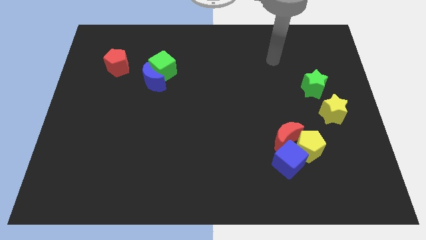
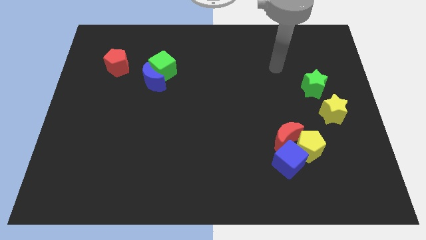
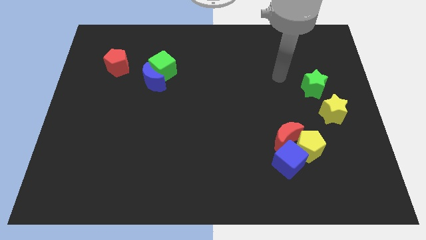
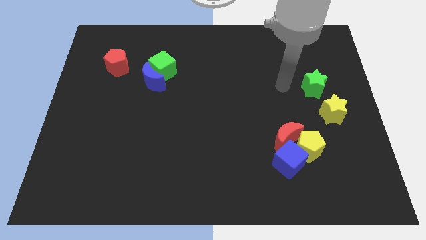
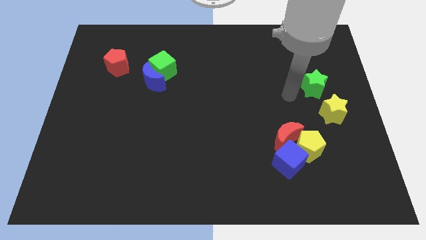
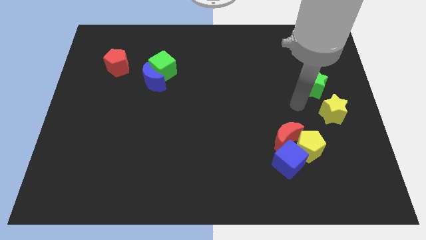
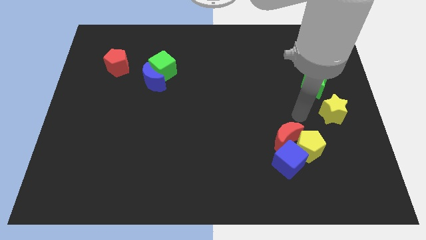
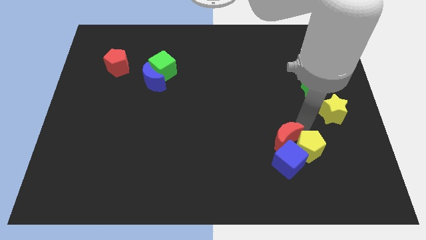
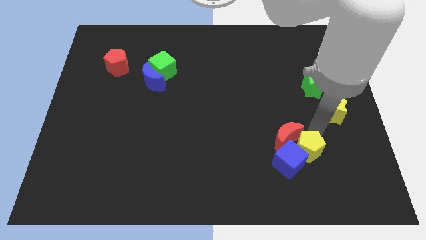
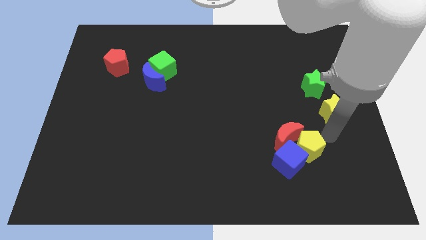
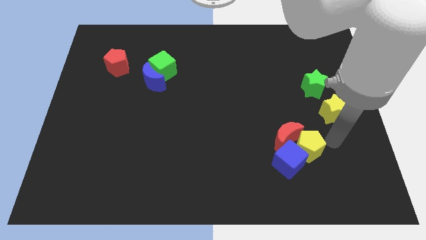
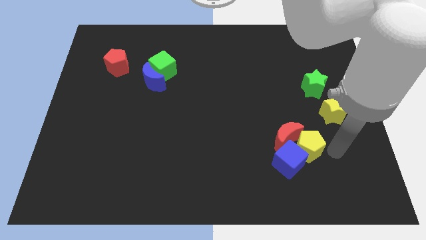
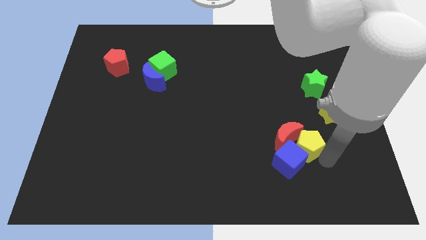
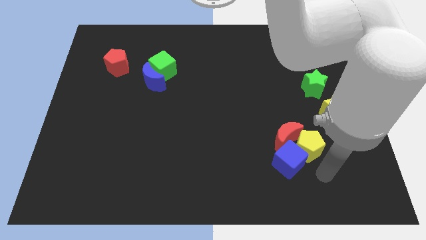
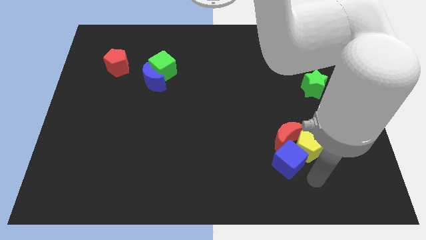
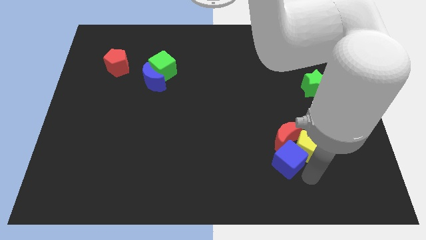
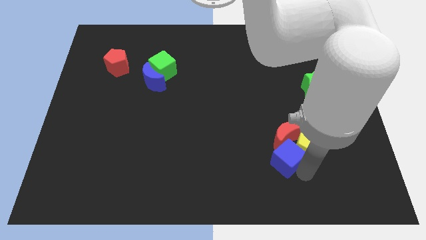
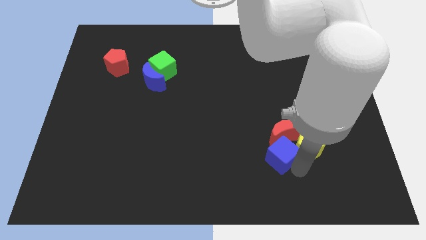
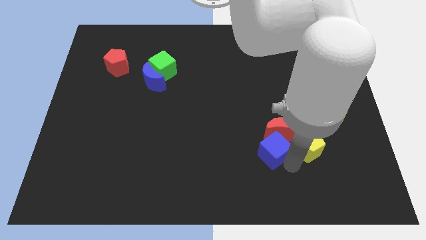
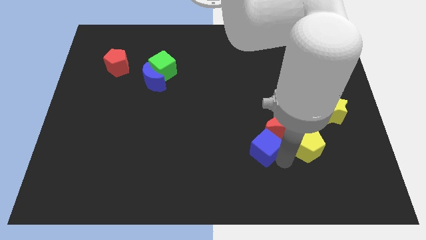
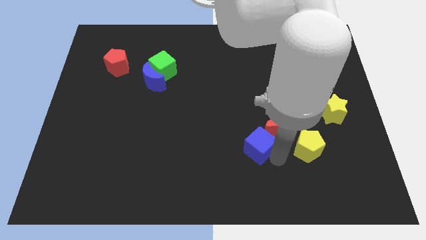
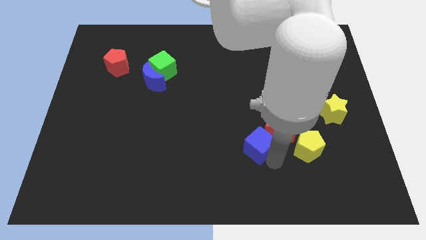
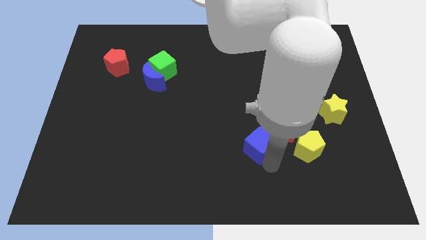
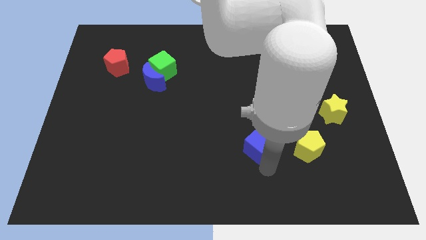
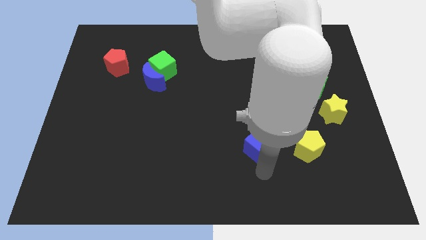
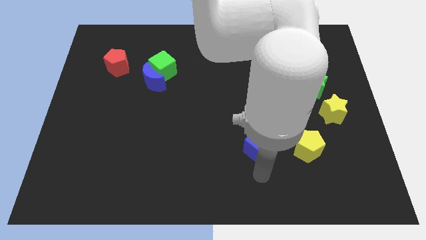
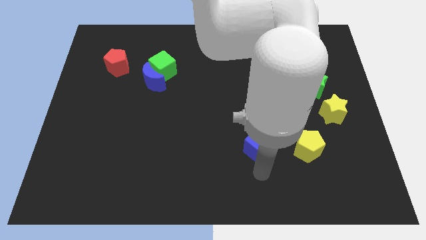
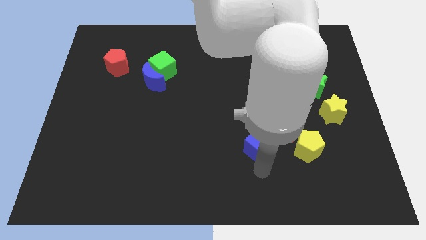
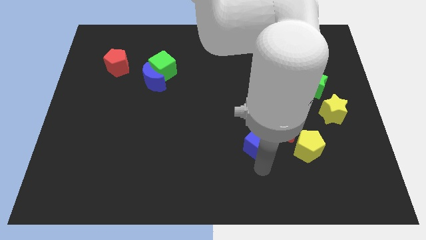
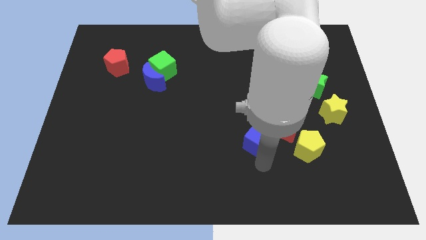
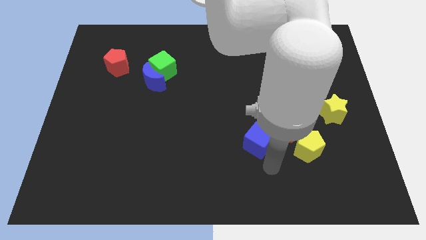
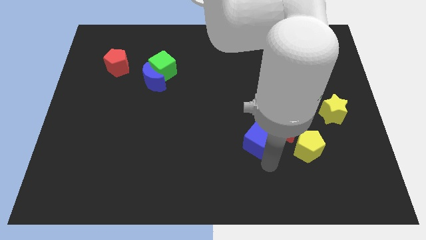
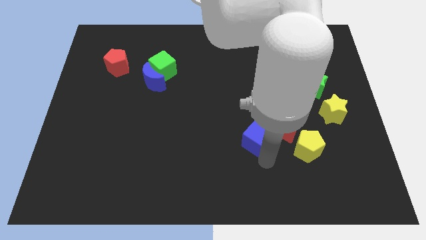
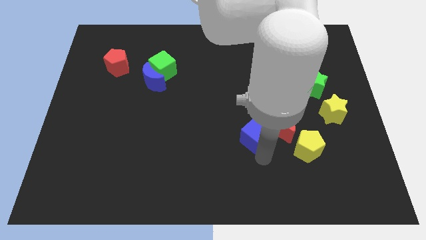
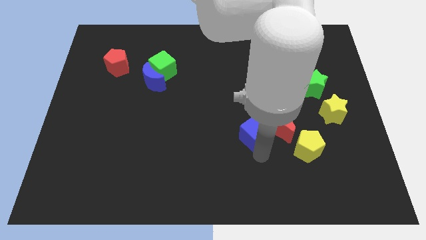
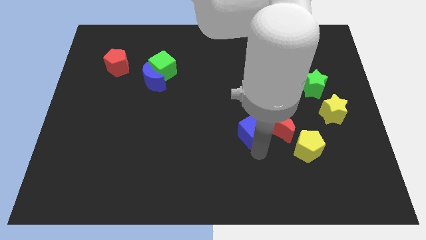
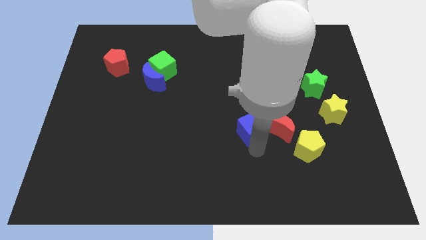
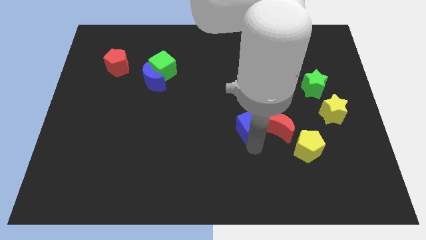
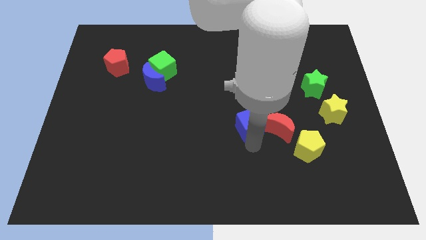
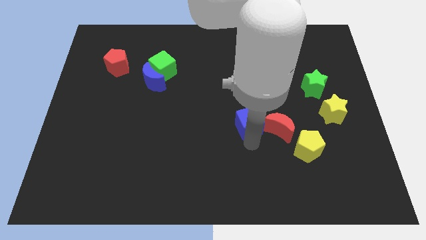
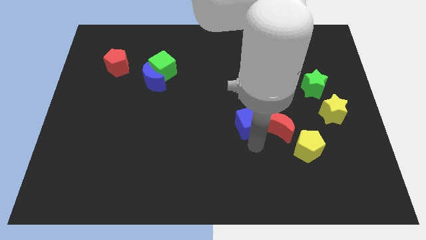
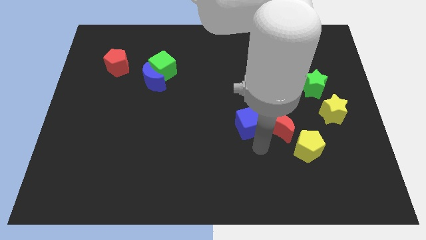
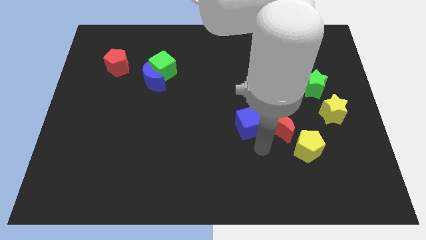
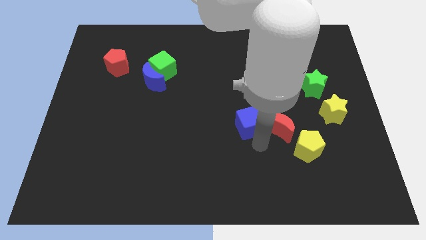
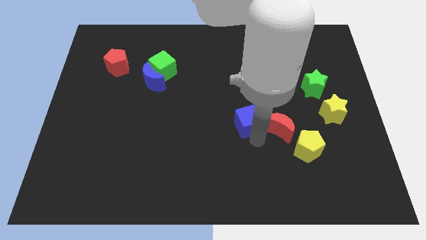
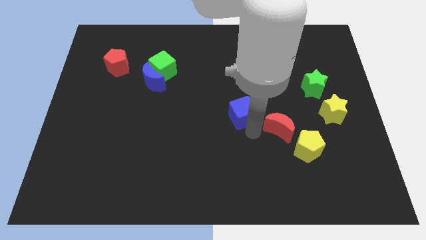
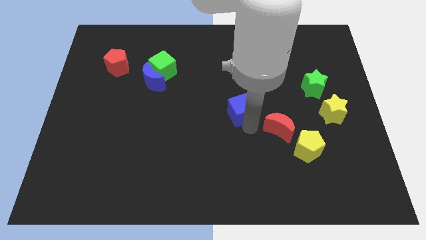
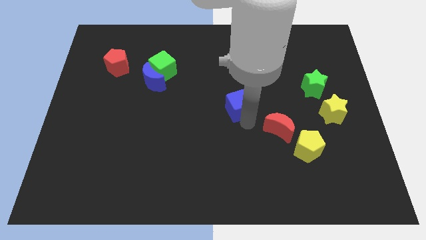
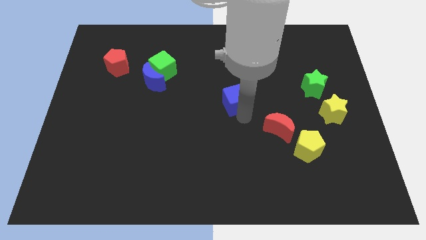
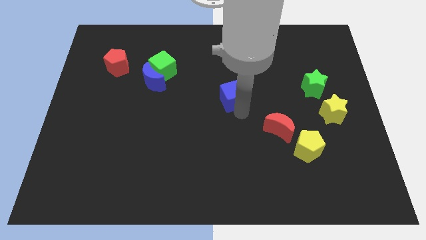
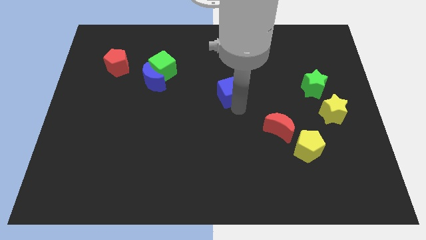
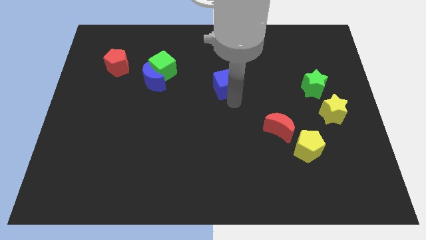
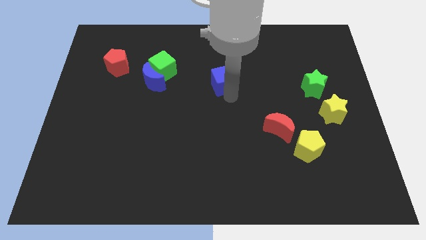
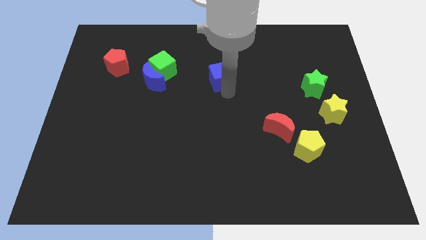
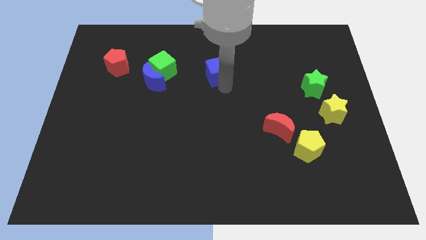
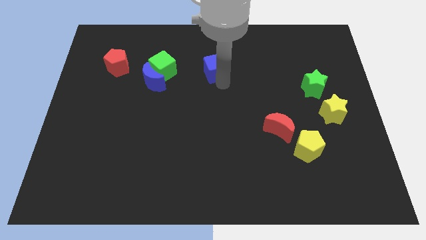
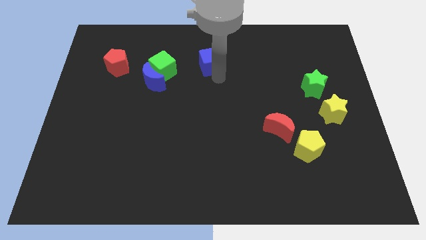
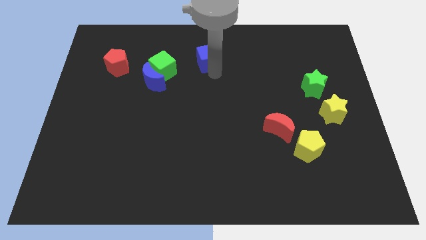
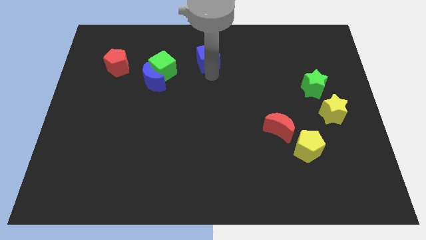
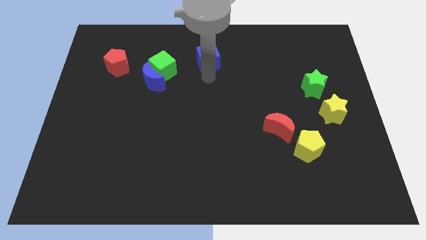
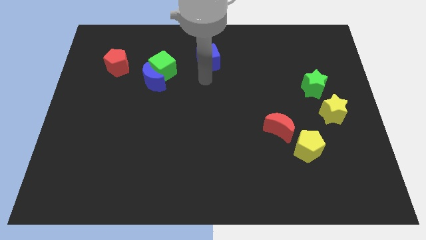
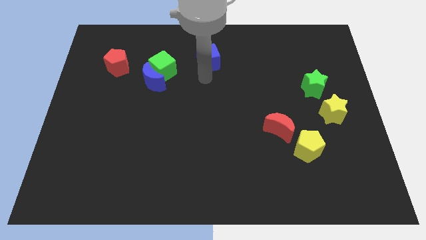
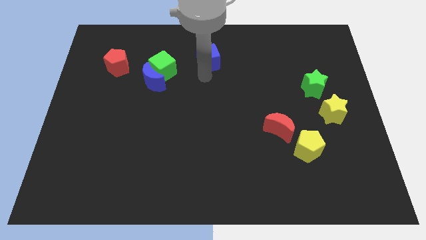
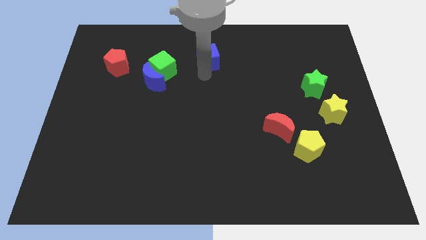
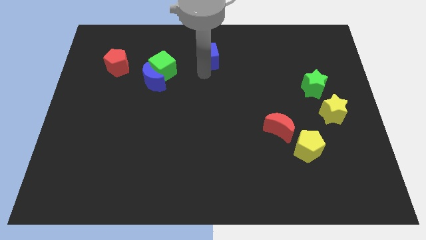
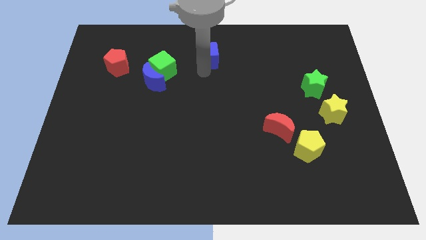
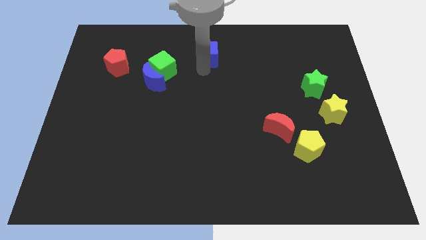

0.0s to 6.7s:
push the blue cube to the towards your base

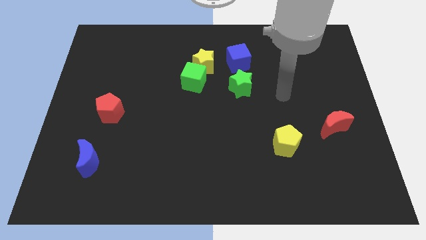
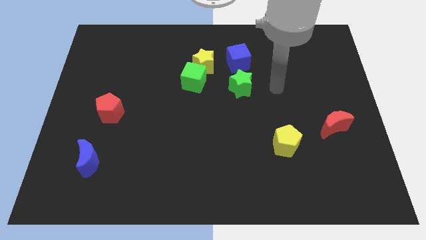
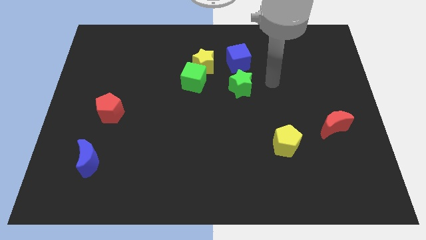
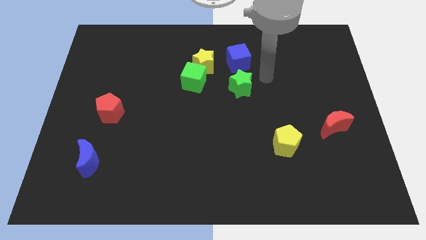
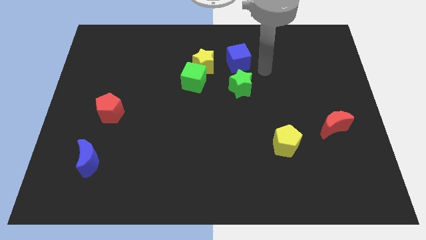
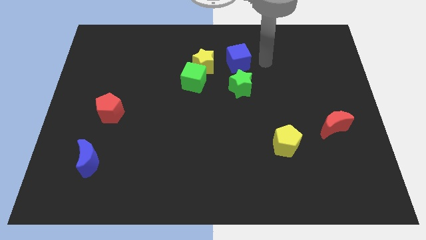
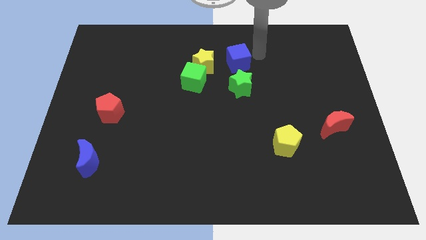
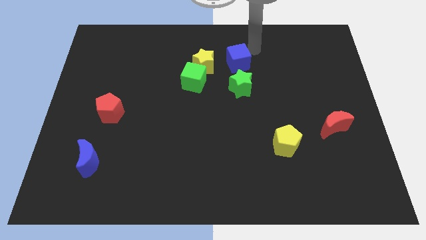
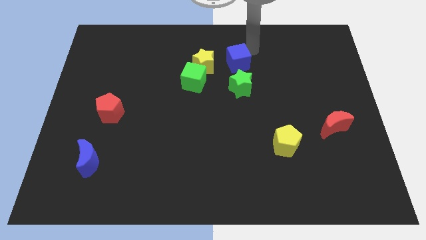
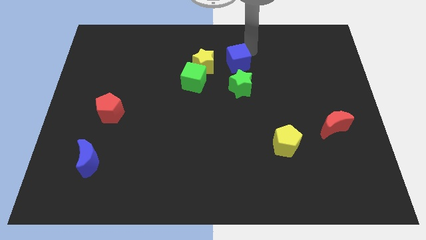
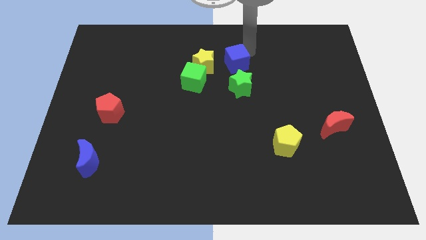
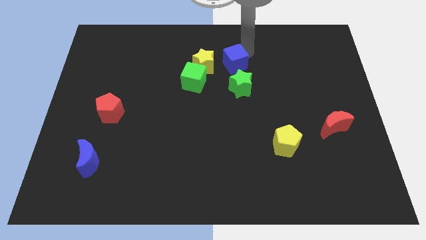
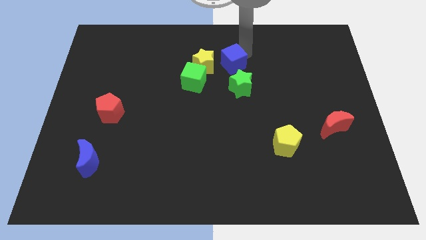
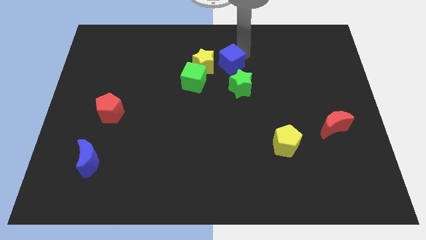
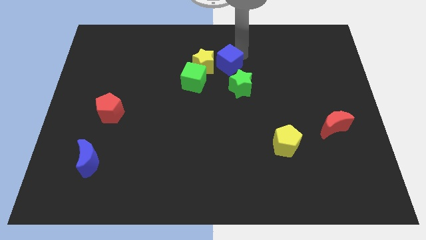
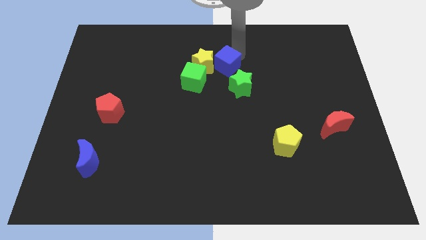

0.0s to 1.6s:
push the blue cube to the center
